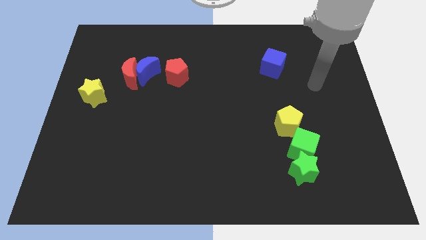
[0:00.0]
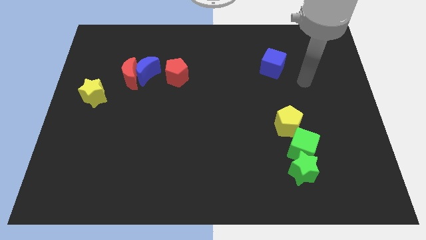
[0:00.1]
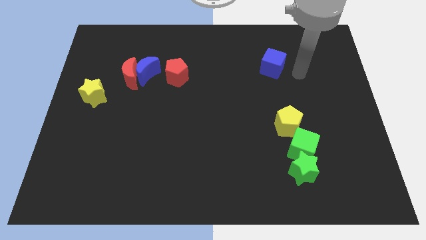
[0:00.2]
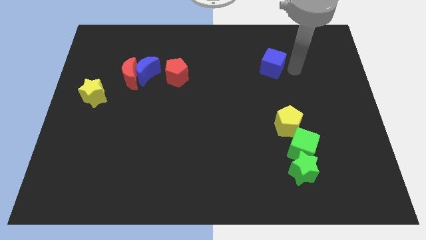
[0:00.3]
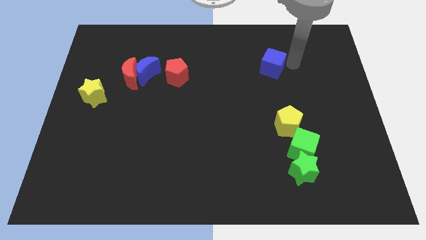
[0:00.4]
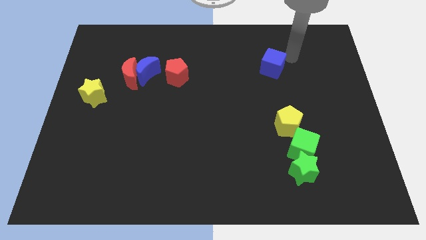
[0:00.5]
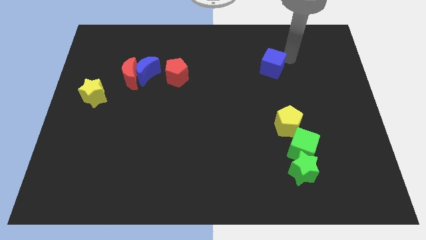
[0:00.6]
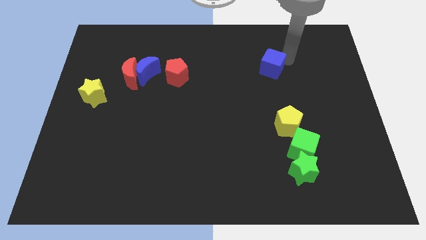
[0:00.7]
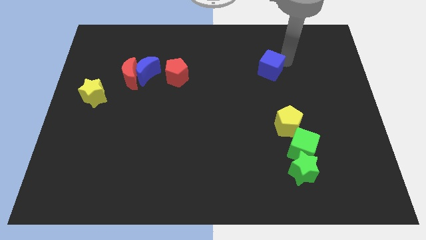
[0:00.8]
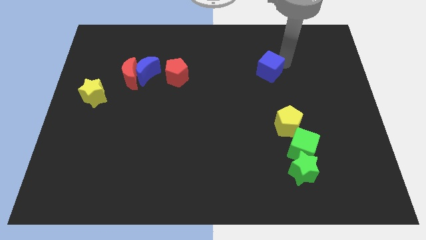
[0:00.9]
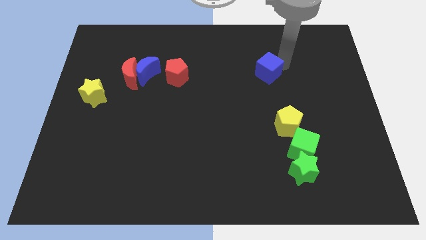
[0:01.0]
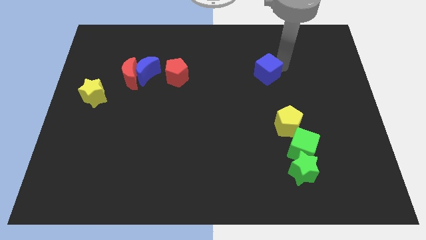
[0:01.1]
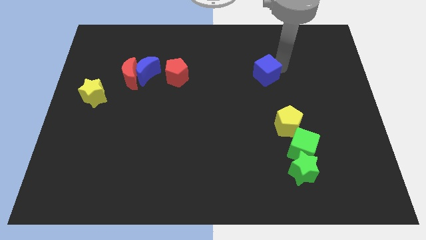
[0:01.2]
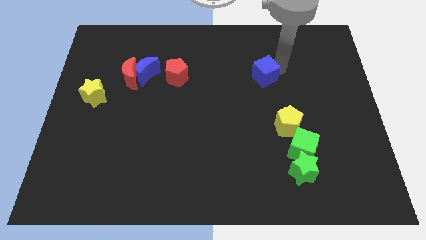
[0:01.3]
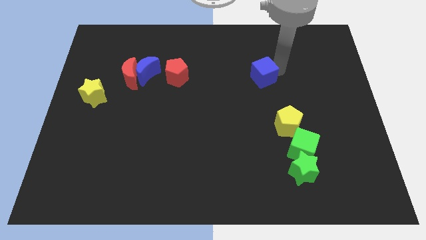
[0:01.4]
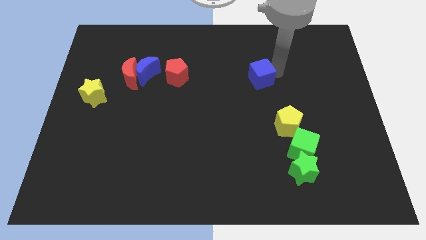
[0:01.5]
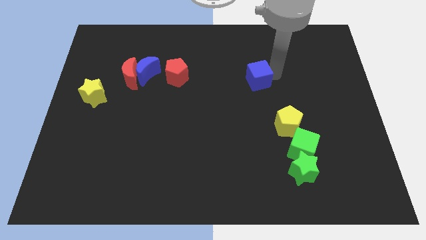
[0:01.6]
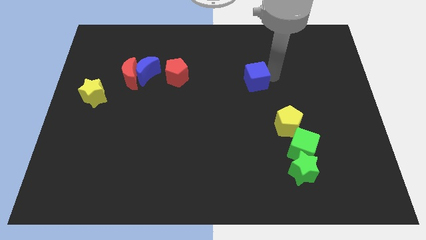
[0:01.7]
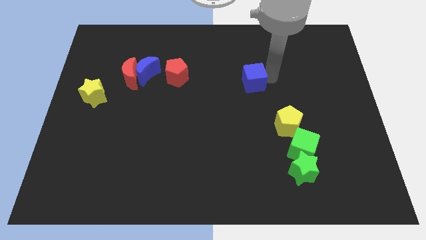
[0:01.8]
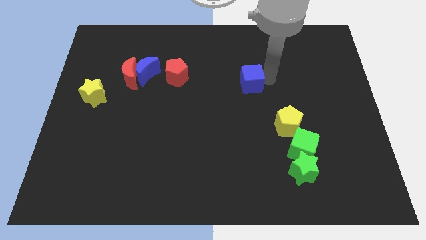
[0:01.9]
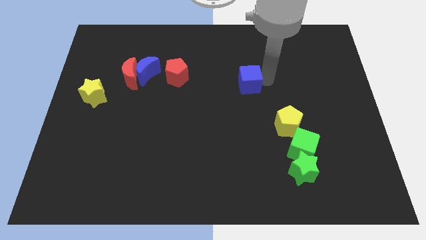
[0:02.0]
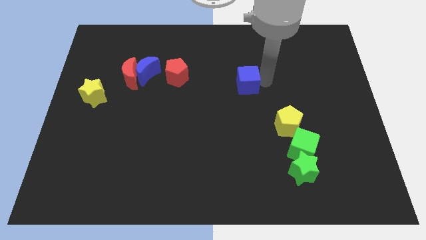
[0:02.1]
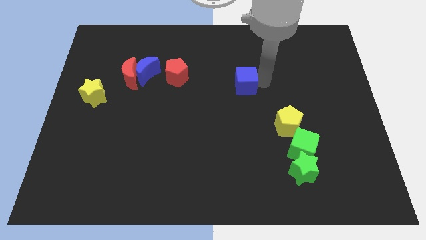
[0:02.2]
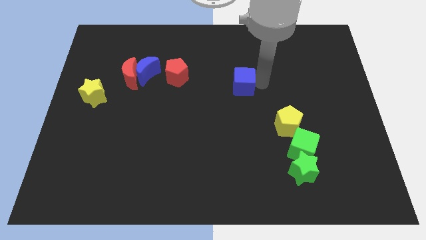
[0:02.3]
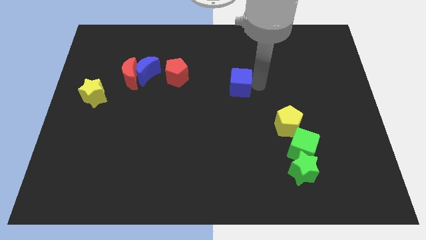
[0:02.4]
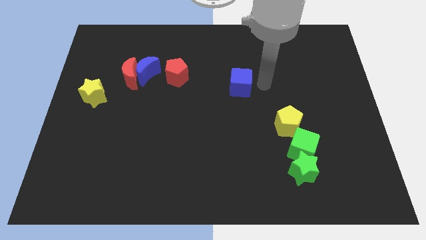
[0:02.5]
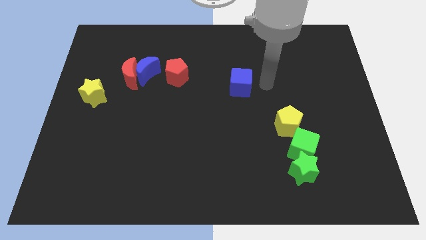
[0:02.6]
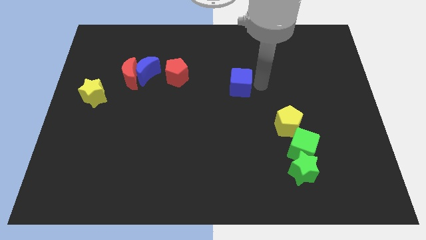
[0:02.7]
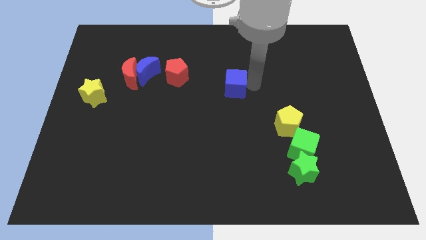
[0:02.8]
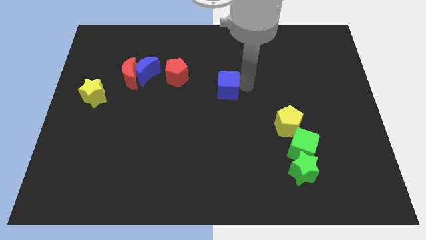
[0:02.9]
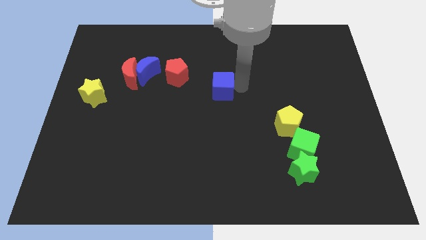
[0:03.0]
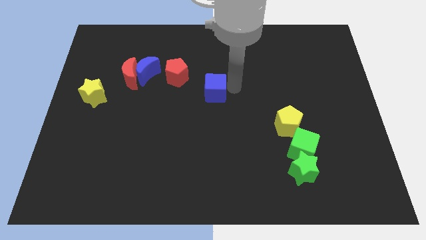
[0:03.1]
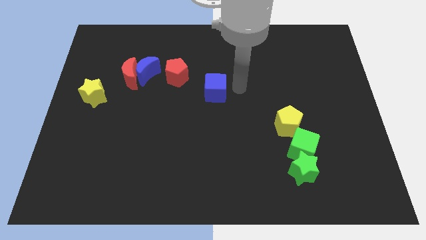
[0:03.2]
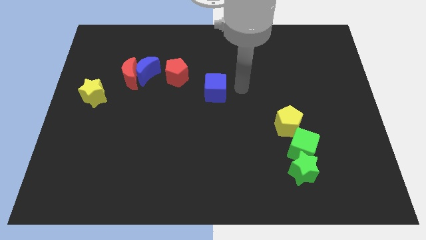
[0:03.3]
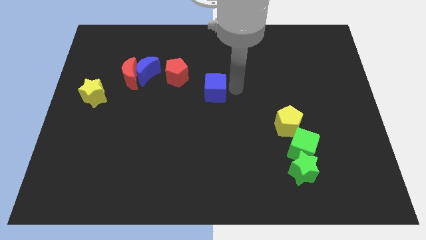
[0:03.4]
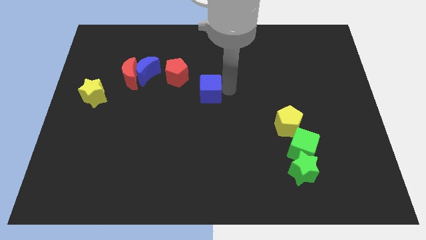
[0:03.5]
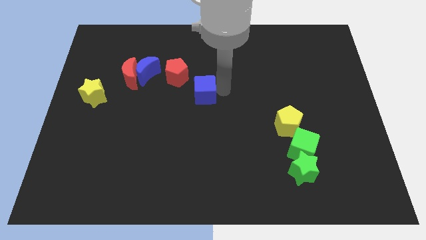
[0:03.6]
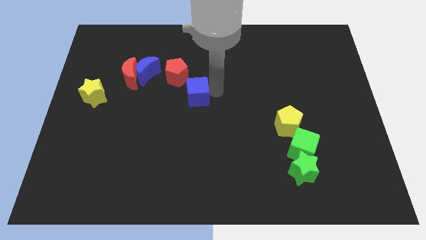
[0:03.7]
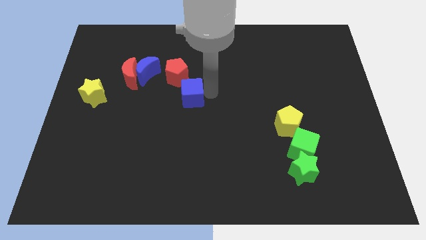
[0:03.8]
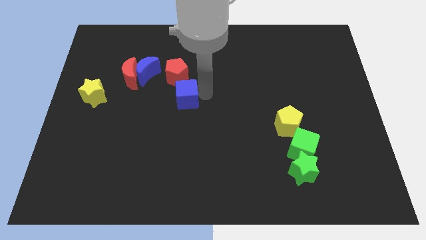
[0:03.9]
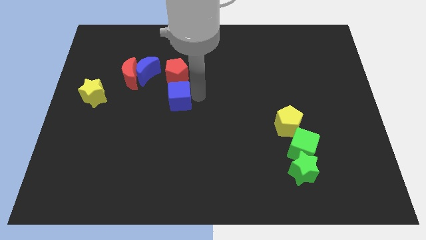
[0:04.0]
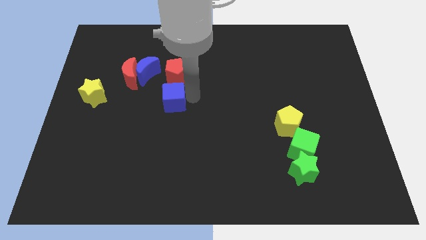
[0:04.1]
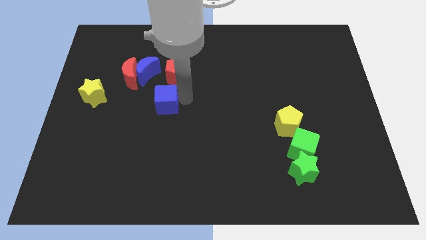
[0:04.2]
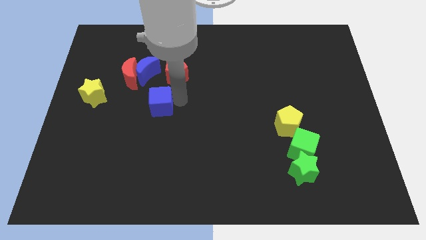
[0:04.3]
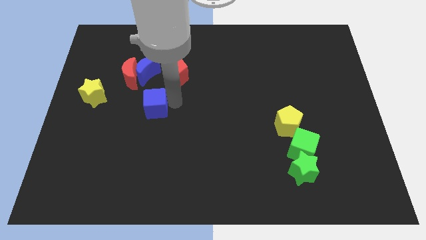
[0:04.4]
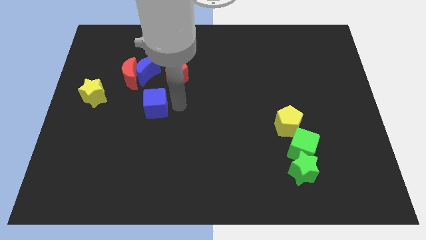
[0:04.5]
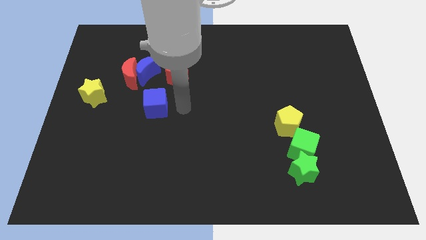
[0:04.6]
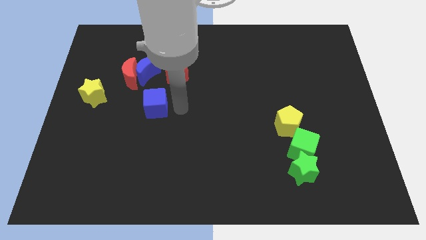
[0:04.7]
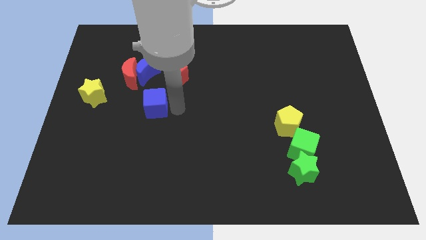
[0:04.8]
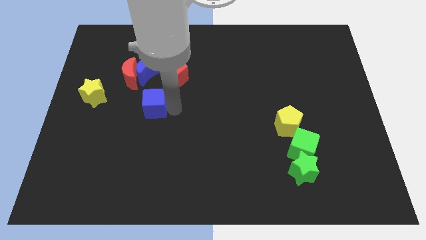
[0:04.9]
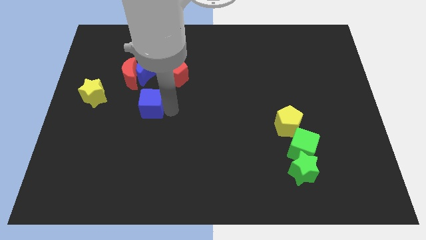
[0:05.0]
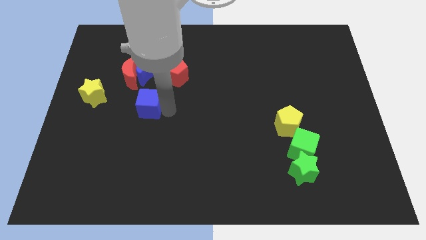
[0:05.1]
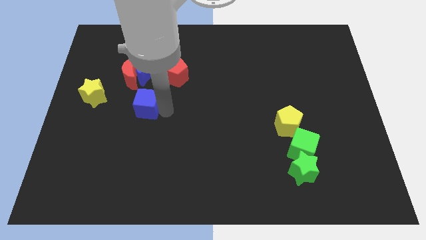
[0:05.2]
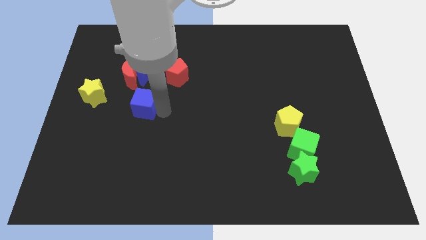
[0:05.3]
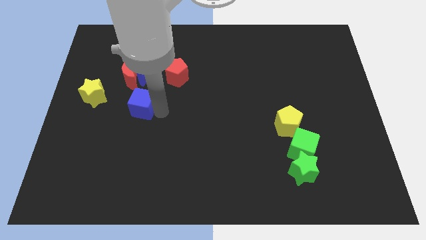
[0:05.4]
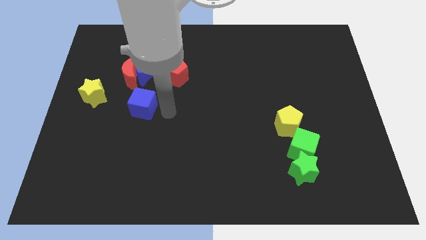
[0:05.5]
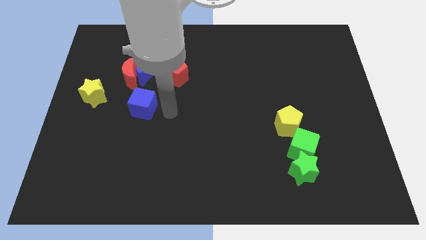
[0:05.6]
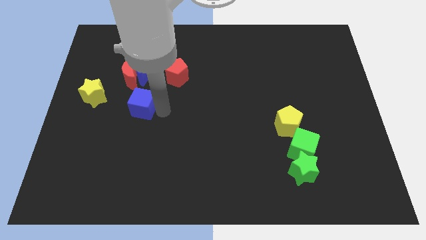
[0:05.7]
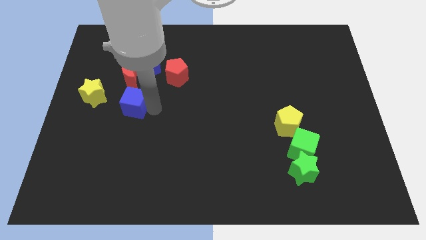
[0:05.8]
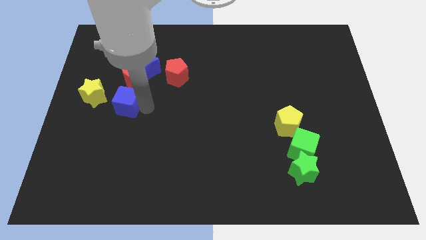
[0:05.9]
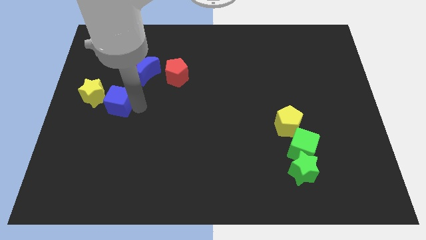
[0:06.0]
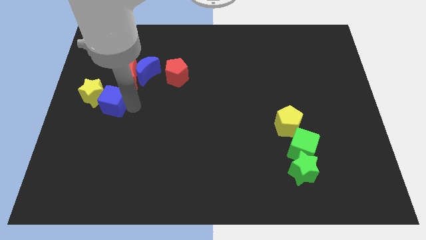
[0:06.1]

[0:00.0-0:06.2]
move the blue cube next to the yellow star

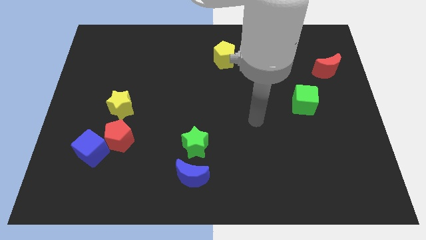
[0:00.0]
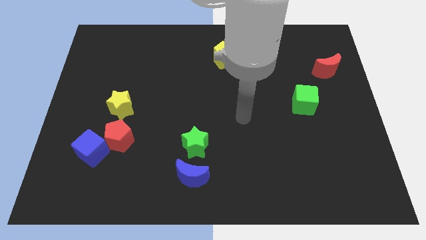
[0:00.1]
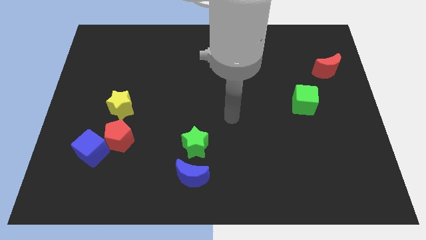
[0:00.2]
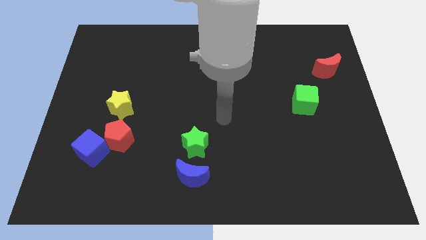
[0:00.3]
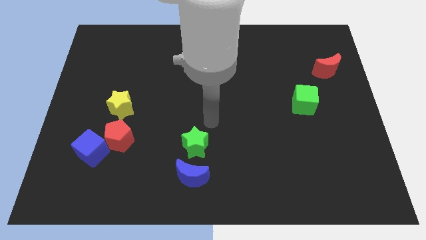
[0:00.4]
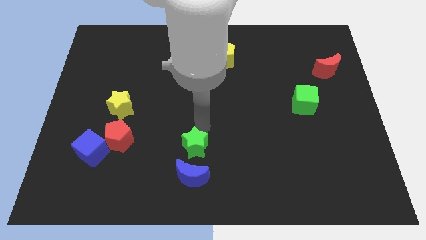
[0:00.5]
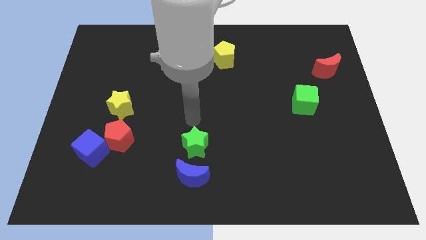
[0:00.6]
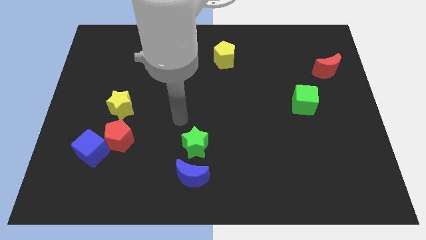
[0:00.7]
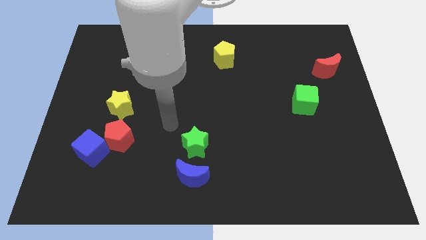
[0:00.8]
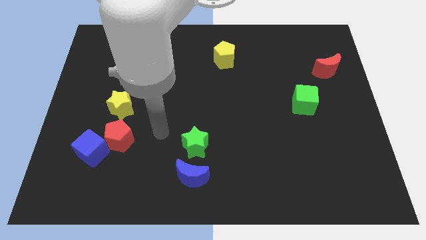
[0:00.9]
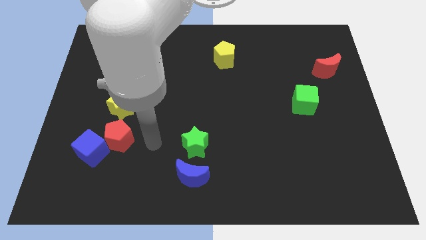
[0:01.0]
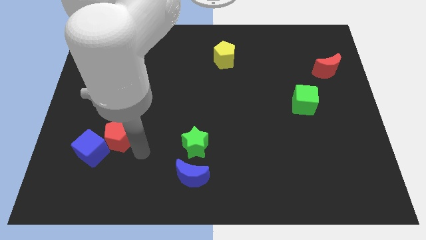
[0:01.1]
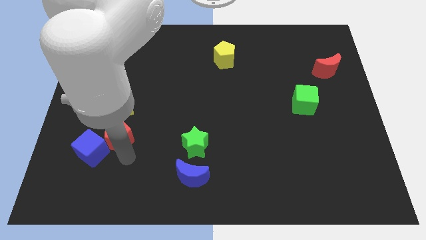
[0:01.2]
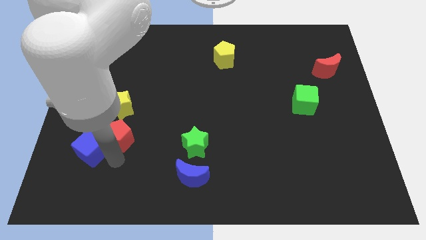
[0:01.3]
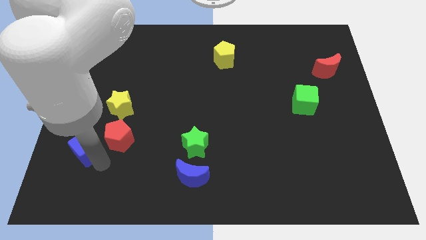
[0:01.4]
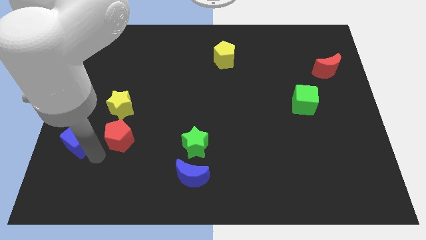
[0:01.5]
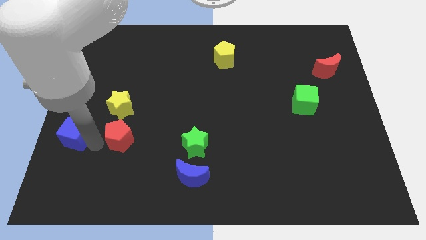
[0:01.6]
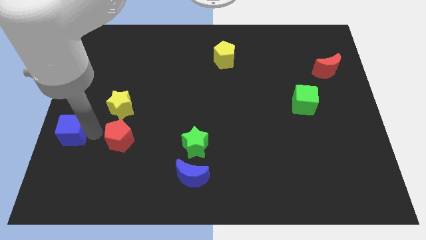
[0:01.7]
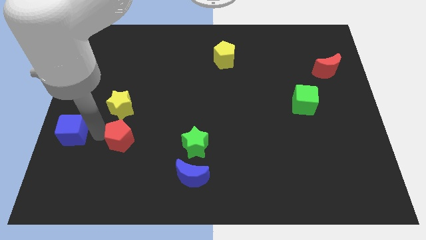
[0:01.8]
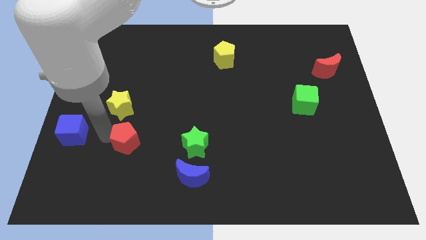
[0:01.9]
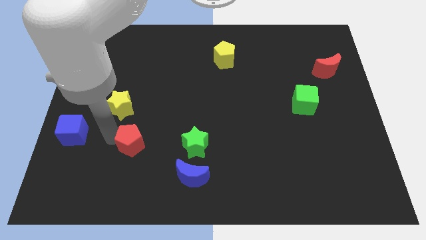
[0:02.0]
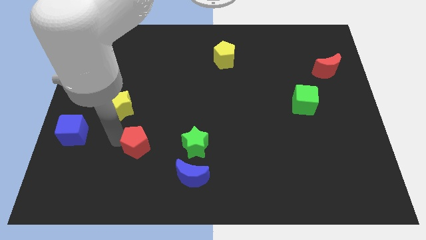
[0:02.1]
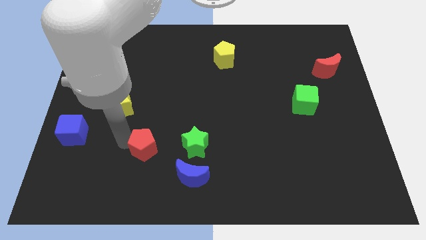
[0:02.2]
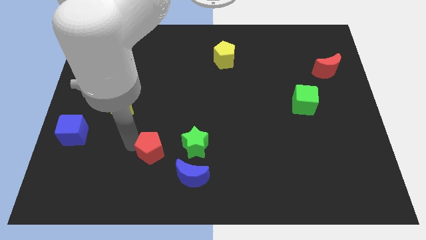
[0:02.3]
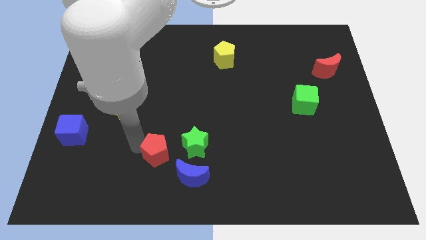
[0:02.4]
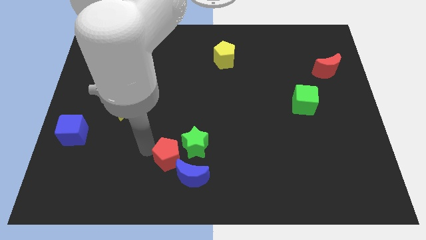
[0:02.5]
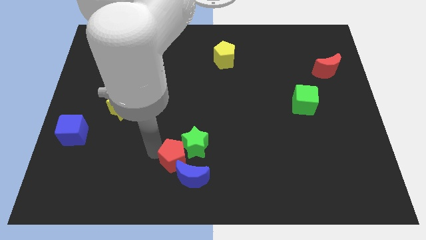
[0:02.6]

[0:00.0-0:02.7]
slide the red pentagon next to the blue moon
